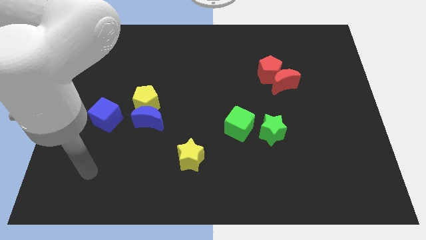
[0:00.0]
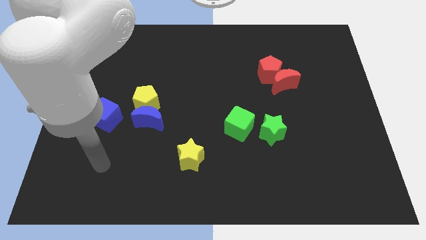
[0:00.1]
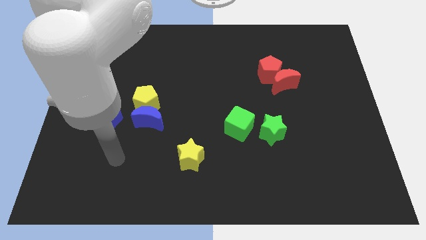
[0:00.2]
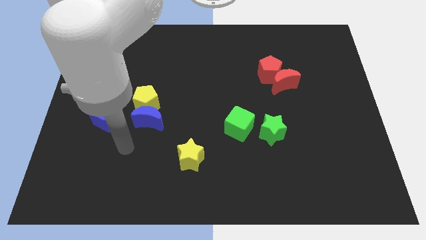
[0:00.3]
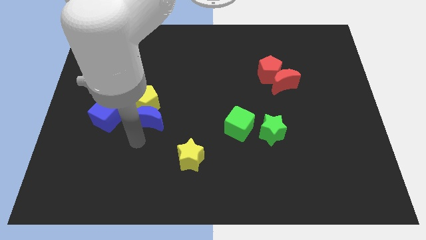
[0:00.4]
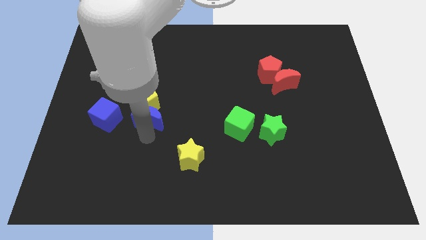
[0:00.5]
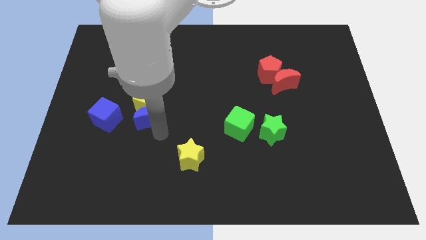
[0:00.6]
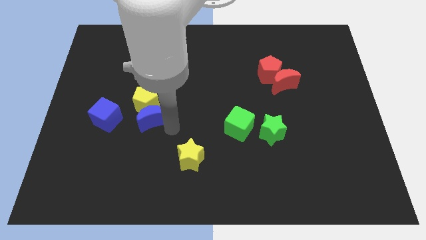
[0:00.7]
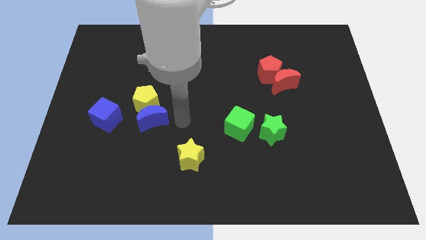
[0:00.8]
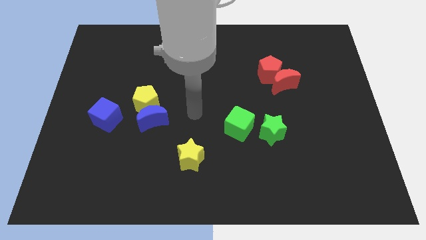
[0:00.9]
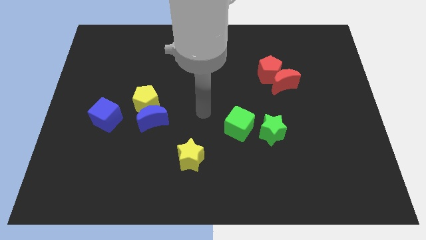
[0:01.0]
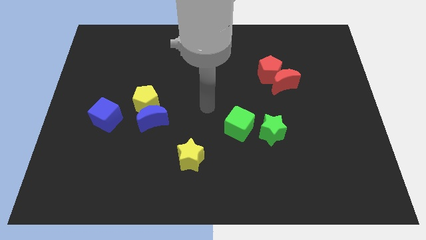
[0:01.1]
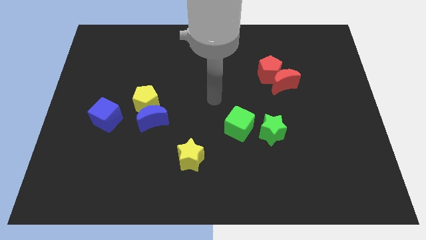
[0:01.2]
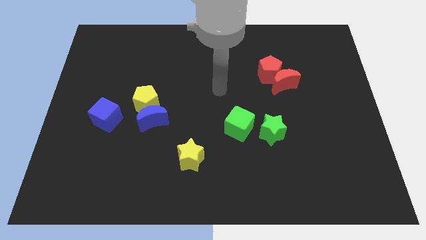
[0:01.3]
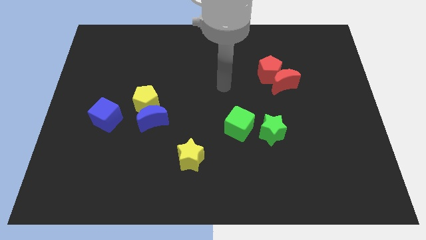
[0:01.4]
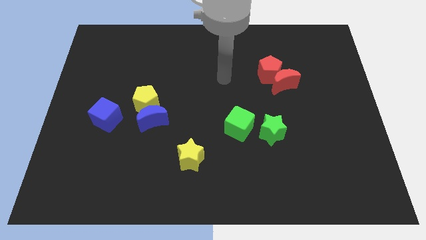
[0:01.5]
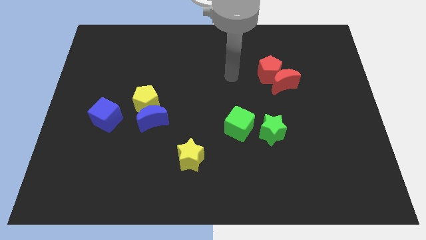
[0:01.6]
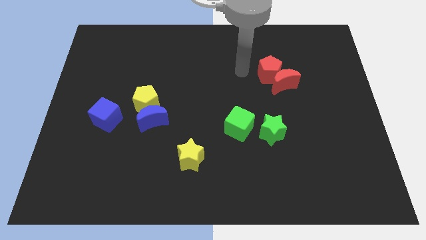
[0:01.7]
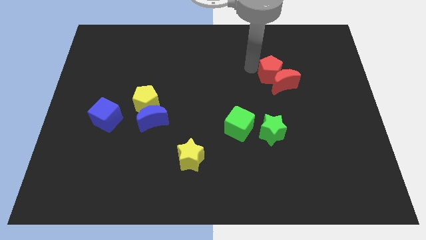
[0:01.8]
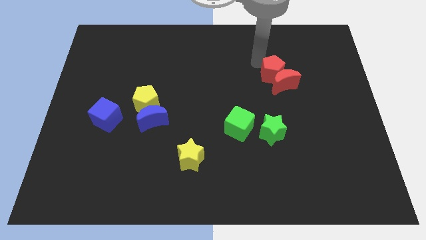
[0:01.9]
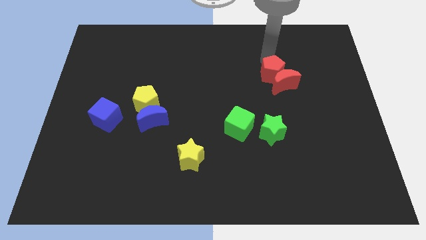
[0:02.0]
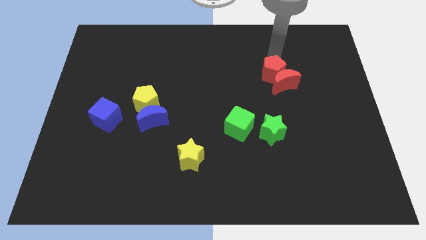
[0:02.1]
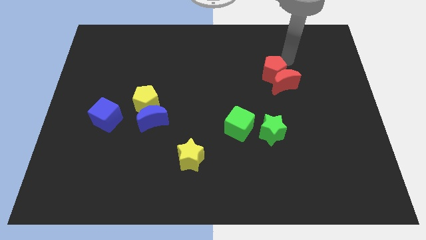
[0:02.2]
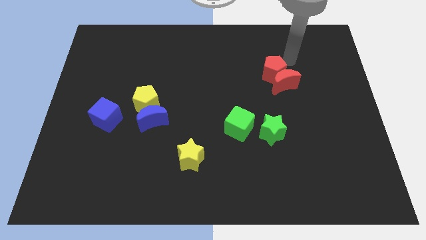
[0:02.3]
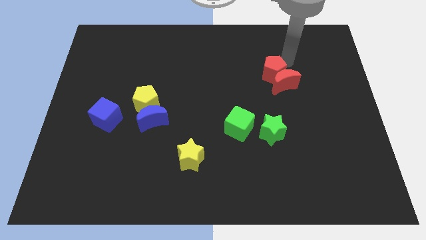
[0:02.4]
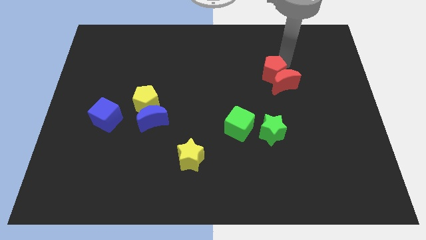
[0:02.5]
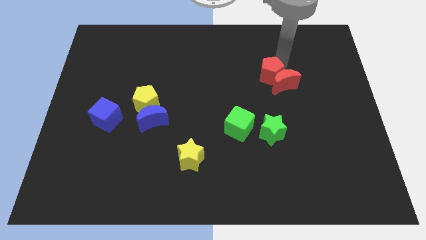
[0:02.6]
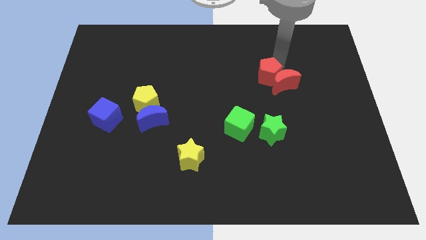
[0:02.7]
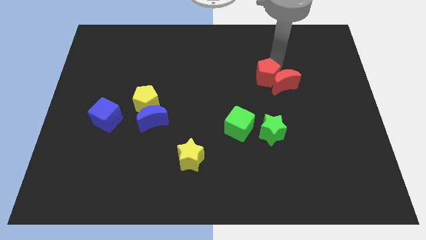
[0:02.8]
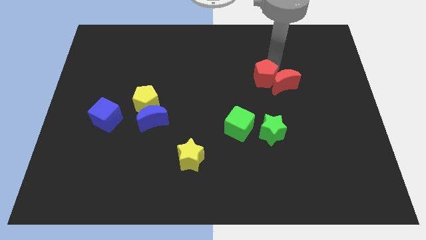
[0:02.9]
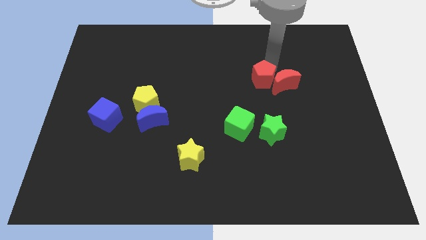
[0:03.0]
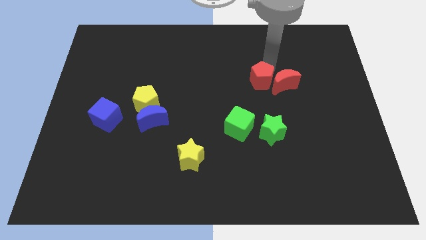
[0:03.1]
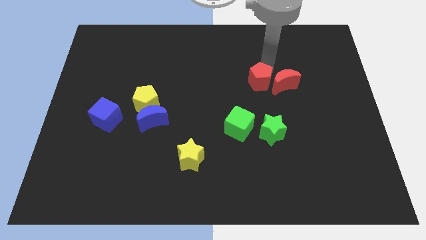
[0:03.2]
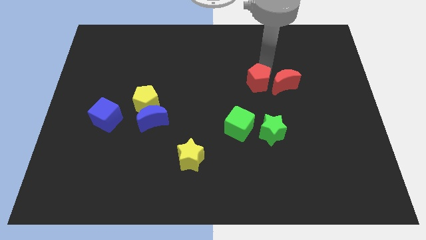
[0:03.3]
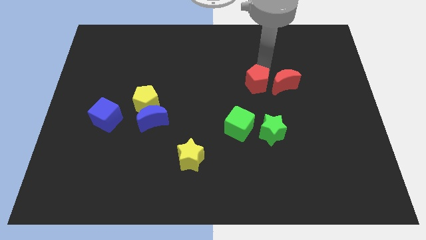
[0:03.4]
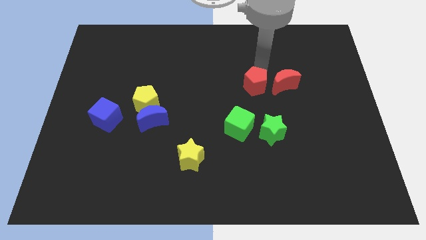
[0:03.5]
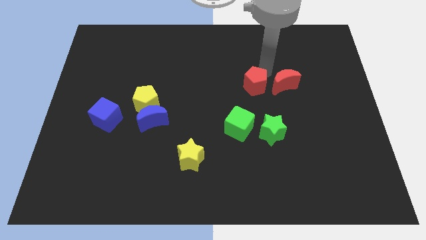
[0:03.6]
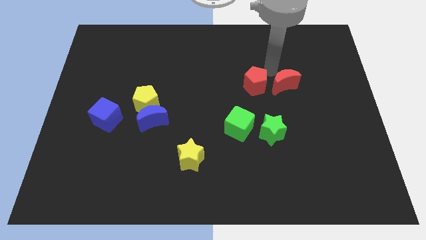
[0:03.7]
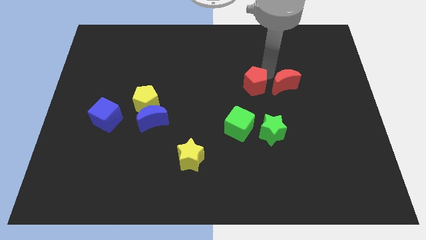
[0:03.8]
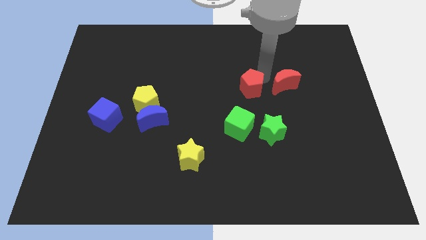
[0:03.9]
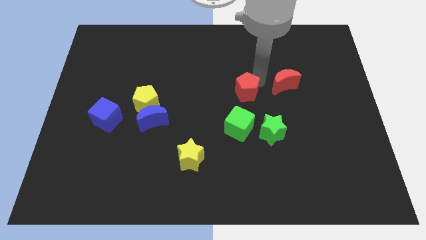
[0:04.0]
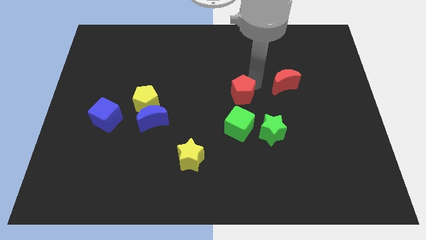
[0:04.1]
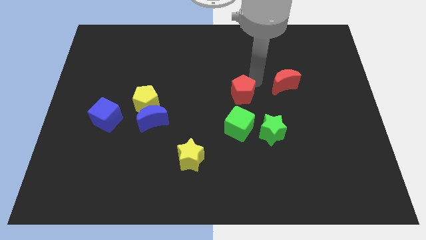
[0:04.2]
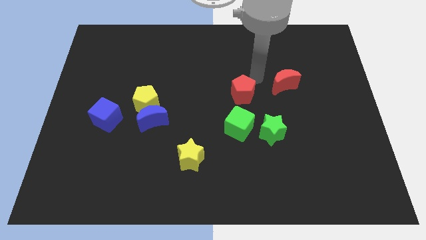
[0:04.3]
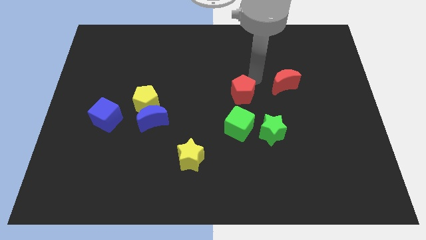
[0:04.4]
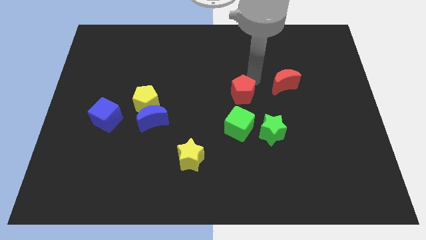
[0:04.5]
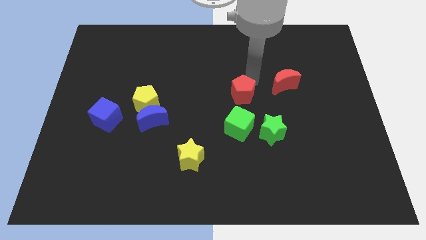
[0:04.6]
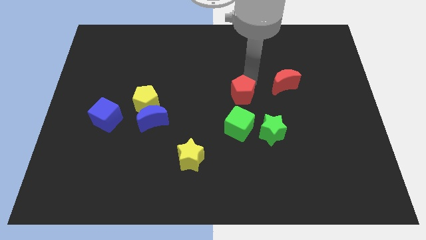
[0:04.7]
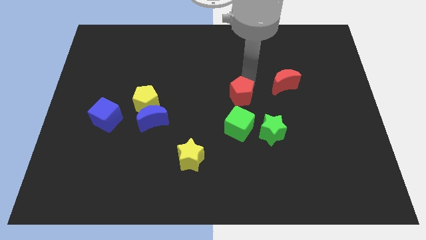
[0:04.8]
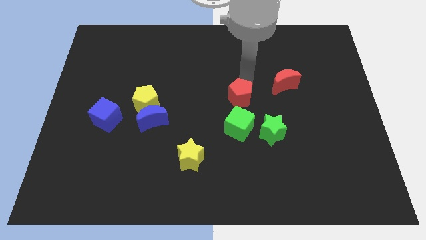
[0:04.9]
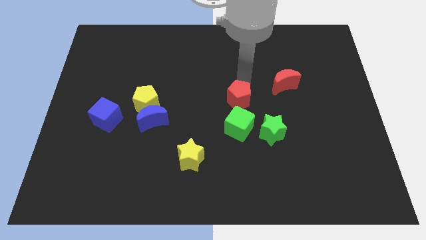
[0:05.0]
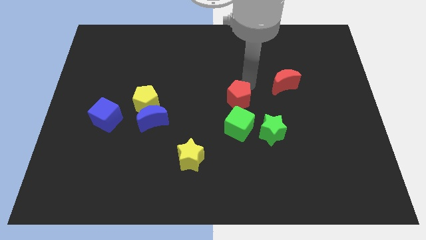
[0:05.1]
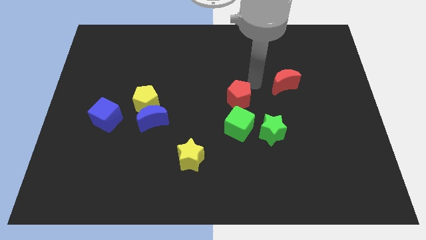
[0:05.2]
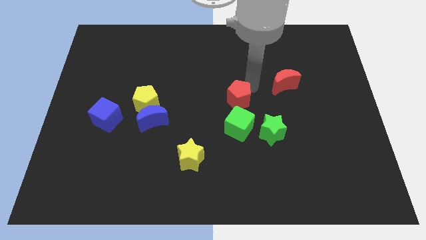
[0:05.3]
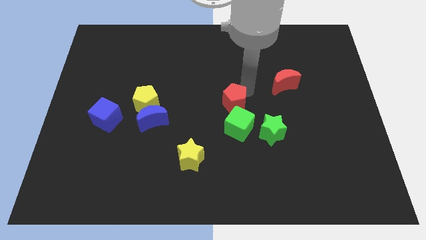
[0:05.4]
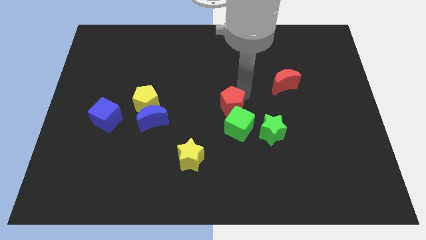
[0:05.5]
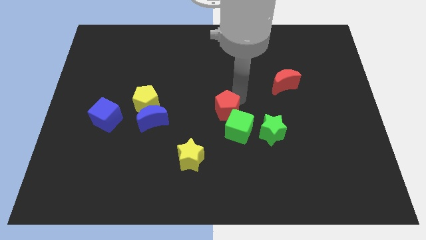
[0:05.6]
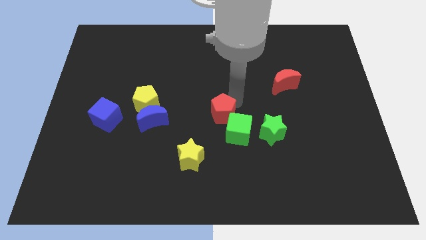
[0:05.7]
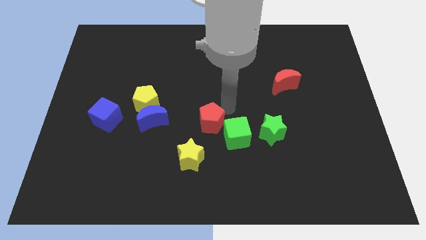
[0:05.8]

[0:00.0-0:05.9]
move the red pentagon downwards and then left

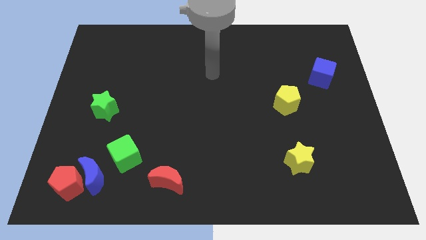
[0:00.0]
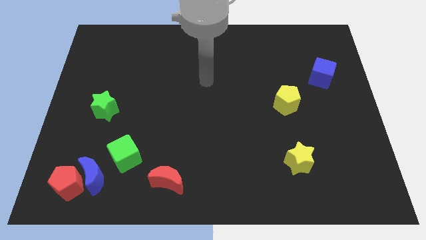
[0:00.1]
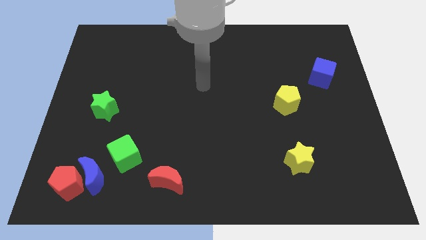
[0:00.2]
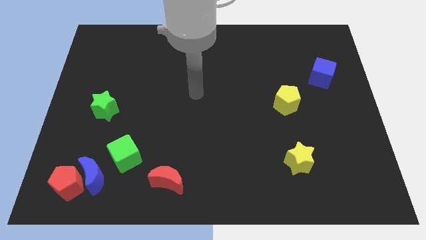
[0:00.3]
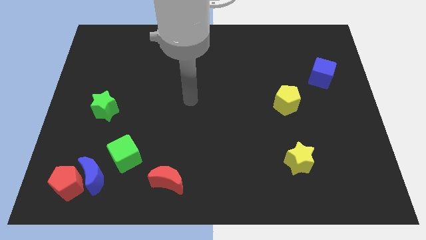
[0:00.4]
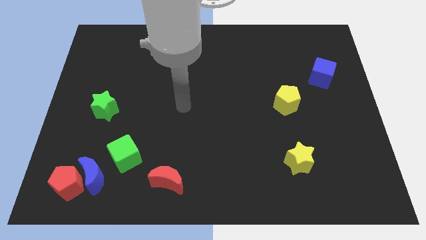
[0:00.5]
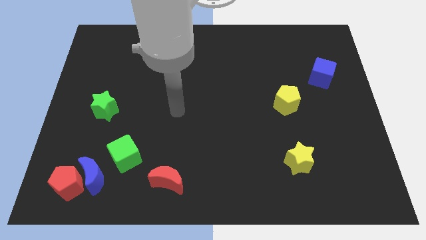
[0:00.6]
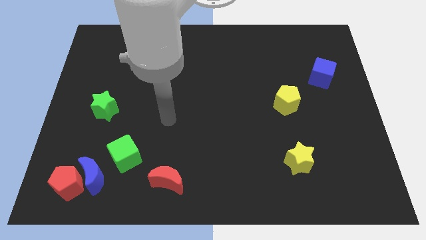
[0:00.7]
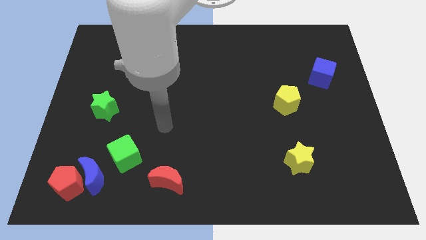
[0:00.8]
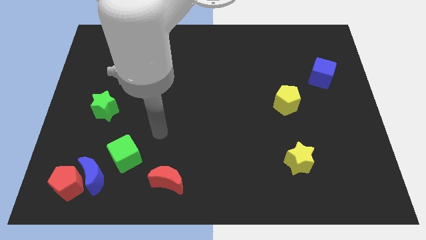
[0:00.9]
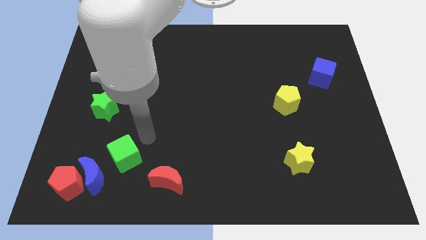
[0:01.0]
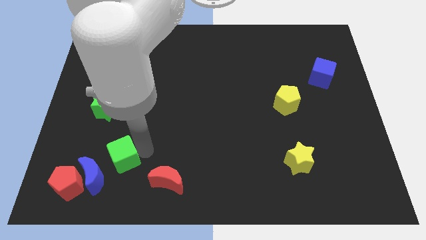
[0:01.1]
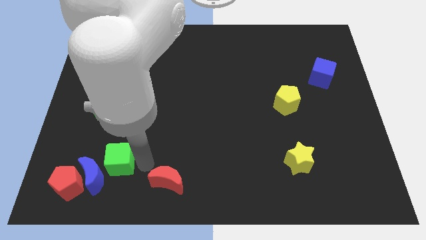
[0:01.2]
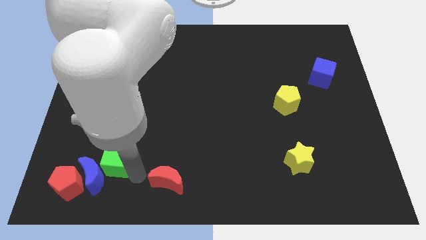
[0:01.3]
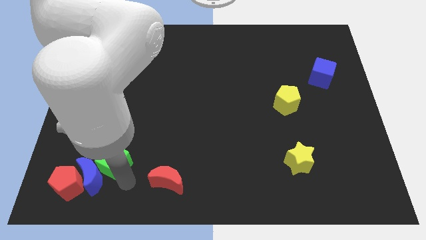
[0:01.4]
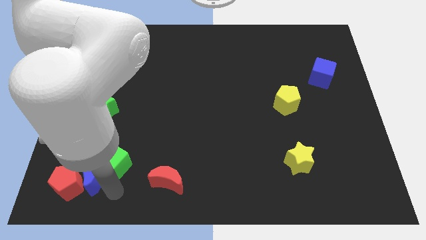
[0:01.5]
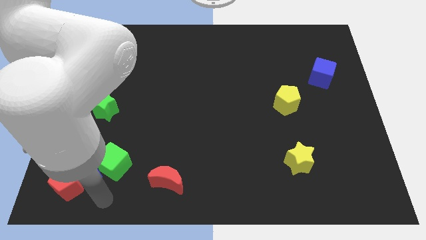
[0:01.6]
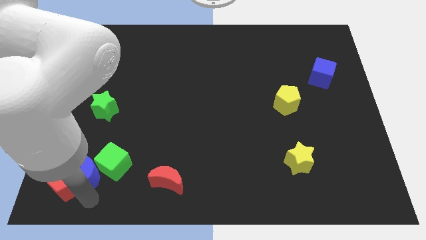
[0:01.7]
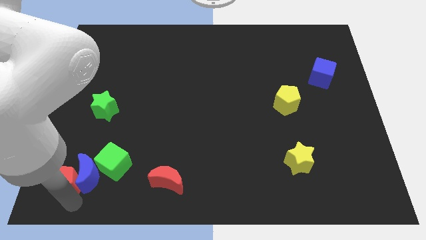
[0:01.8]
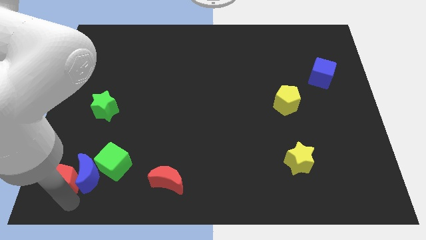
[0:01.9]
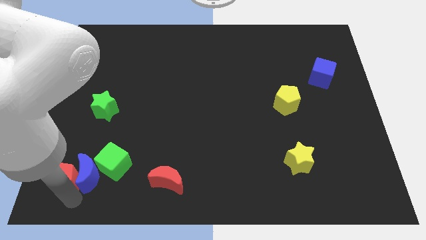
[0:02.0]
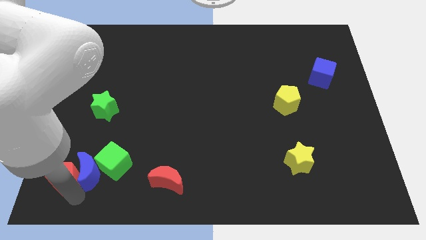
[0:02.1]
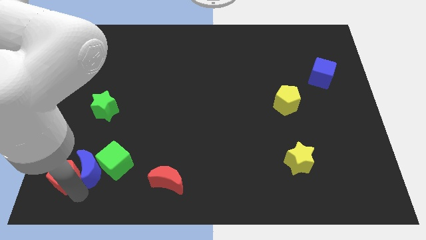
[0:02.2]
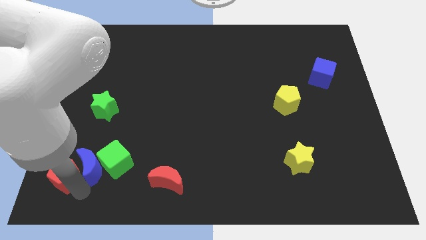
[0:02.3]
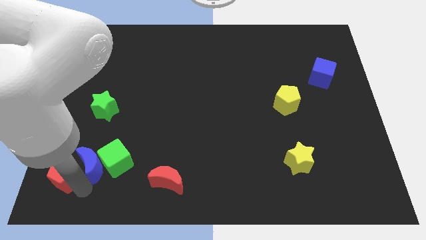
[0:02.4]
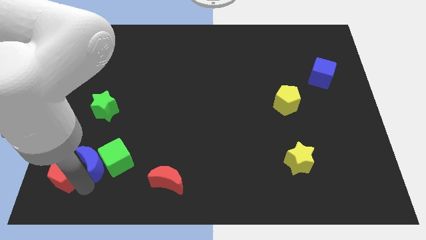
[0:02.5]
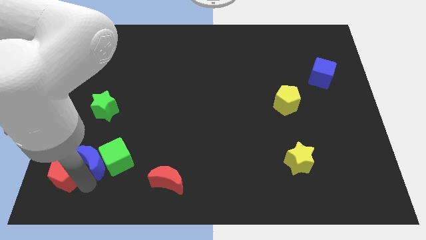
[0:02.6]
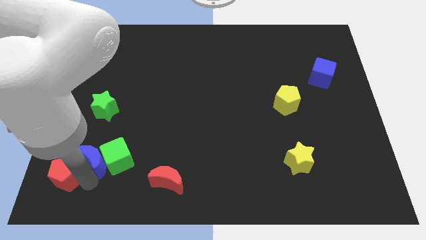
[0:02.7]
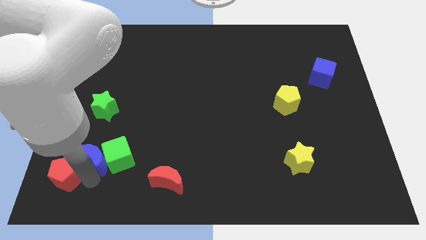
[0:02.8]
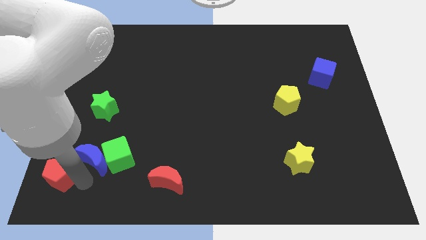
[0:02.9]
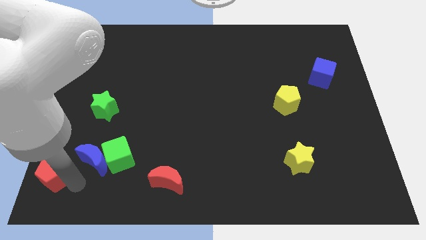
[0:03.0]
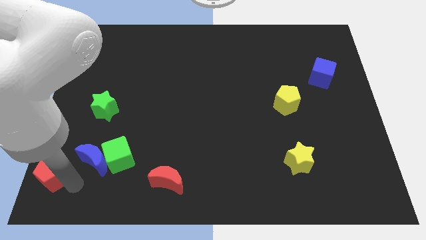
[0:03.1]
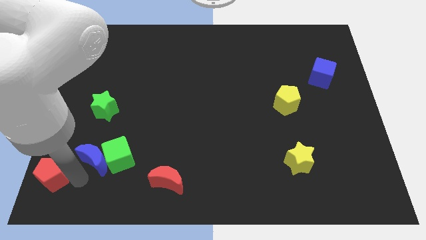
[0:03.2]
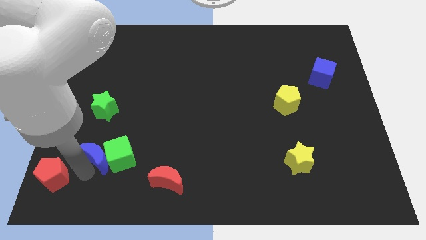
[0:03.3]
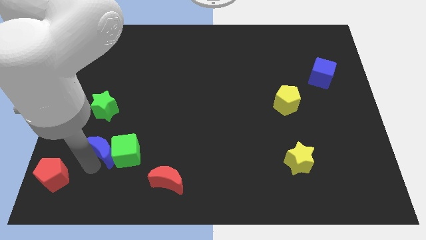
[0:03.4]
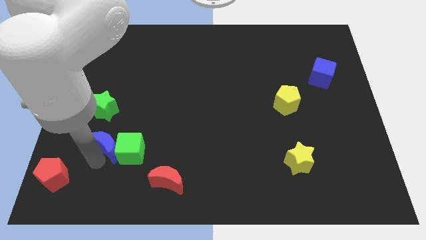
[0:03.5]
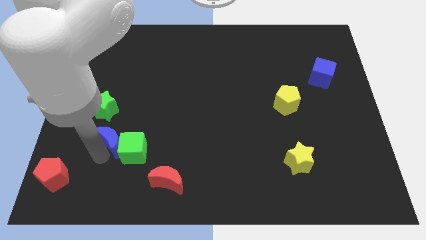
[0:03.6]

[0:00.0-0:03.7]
slightly move the blue moon up and then right
